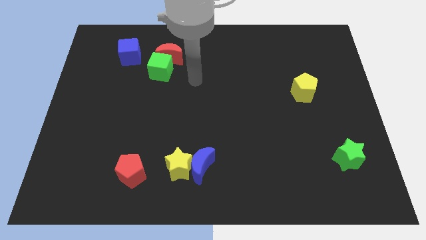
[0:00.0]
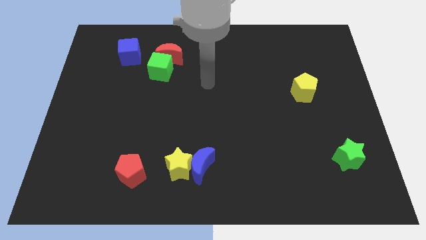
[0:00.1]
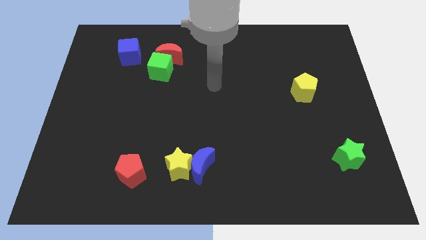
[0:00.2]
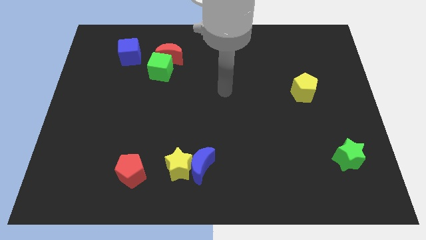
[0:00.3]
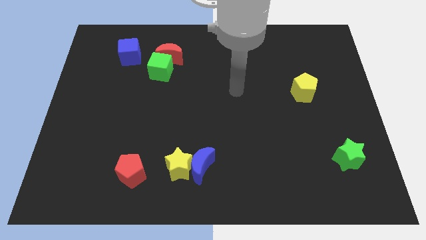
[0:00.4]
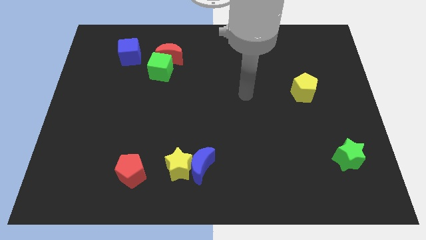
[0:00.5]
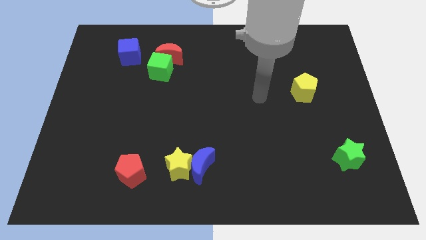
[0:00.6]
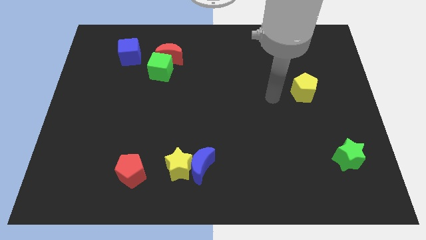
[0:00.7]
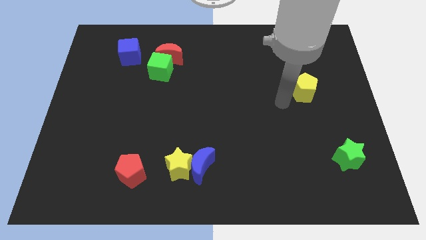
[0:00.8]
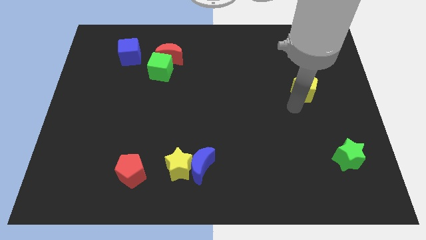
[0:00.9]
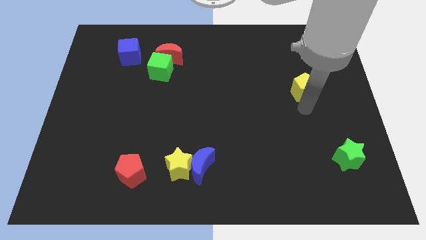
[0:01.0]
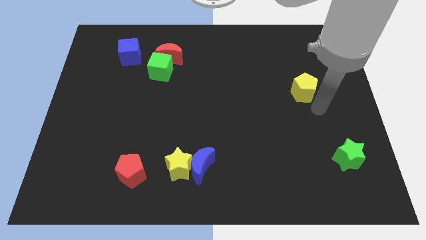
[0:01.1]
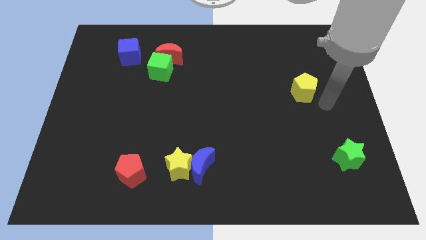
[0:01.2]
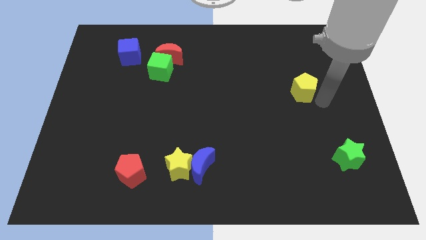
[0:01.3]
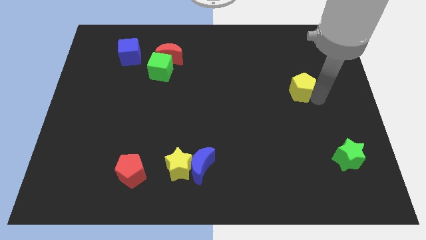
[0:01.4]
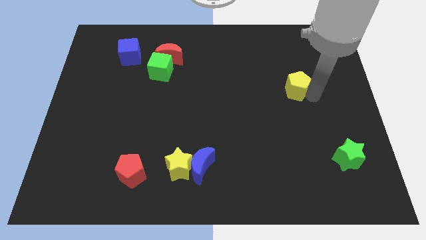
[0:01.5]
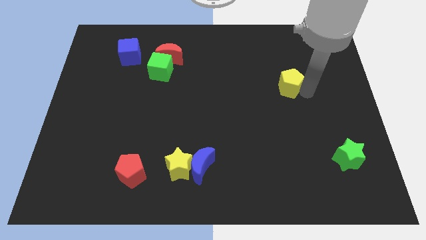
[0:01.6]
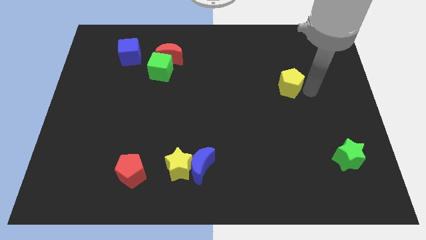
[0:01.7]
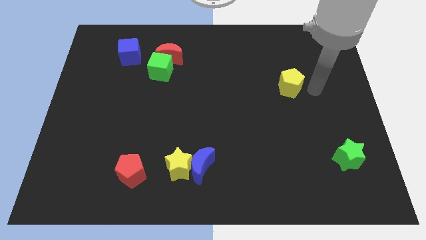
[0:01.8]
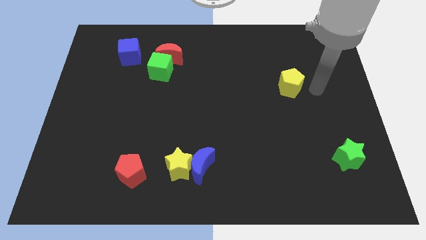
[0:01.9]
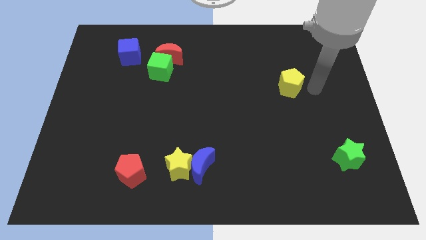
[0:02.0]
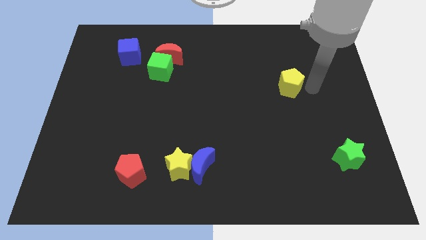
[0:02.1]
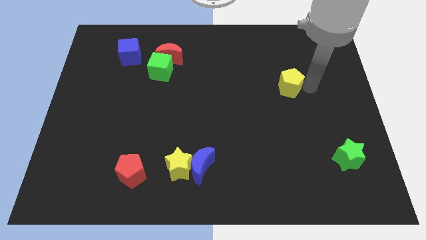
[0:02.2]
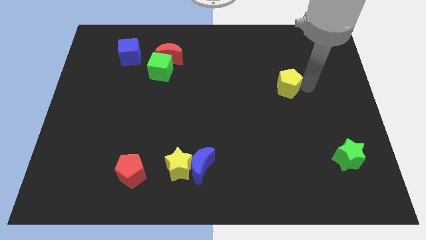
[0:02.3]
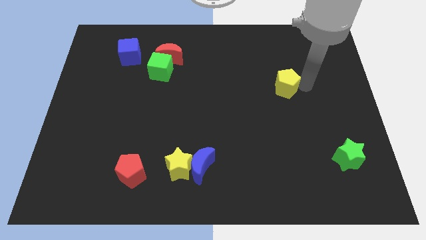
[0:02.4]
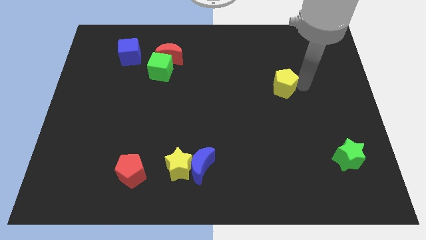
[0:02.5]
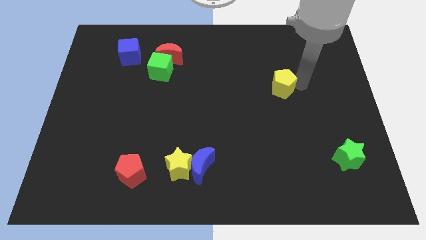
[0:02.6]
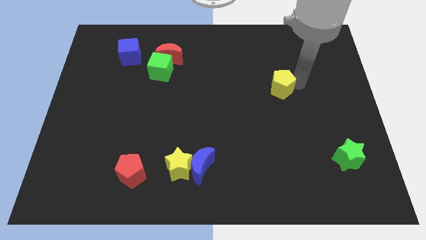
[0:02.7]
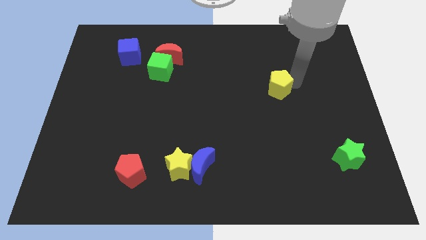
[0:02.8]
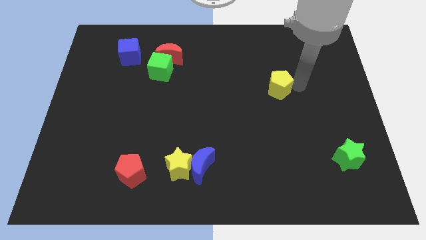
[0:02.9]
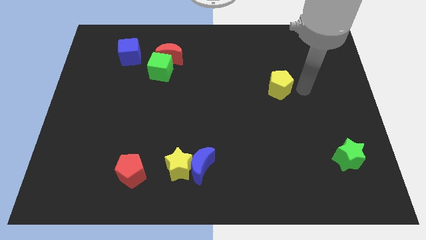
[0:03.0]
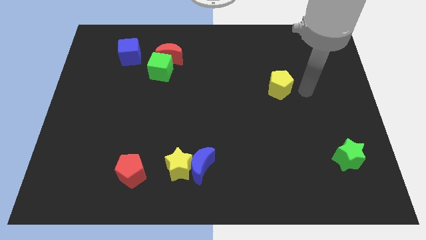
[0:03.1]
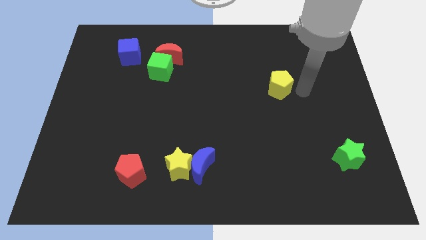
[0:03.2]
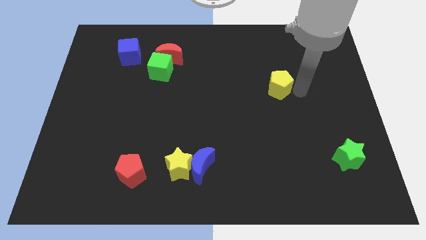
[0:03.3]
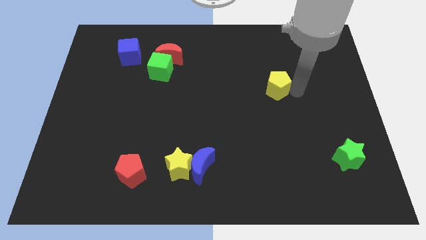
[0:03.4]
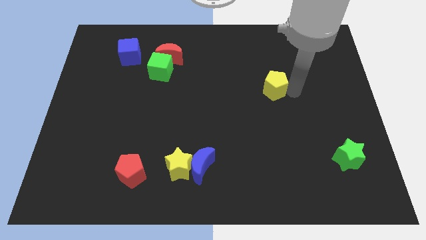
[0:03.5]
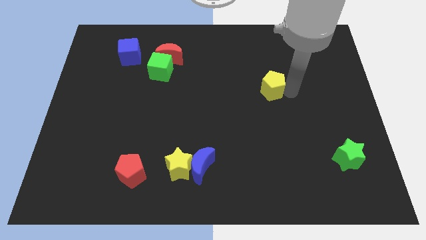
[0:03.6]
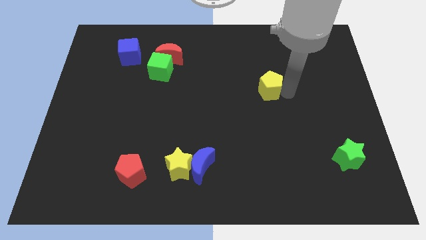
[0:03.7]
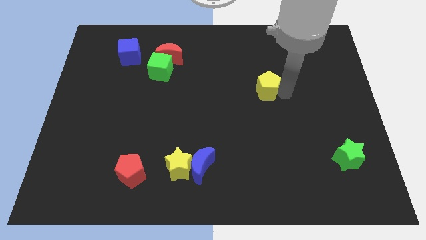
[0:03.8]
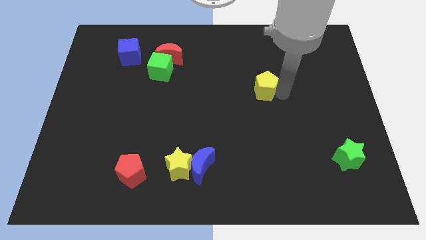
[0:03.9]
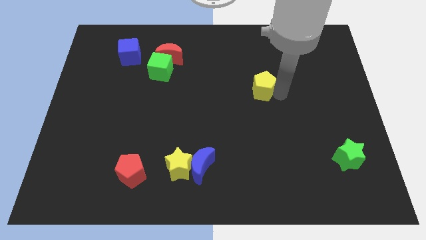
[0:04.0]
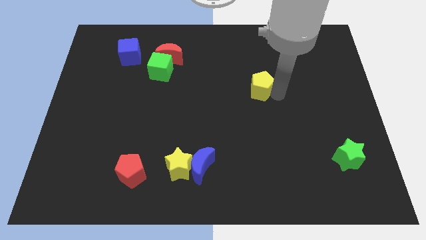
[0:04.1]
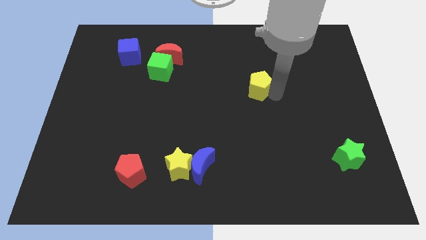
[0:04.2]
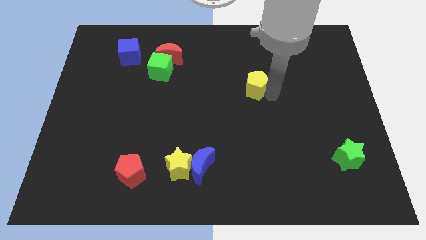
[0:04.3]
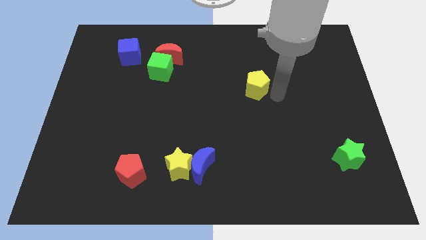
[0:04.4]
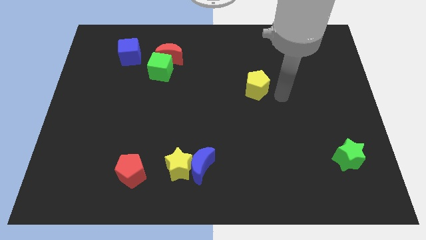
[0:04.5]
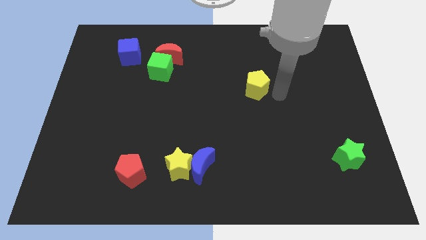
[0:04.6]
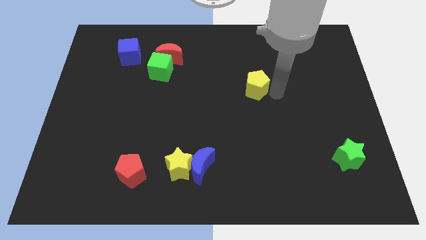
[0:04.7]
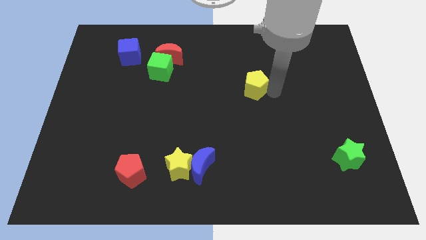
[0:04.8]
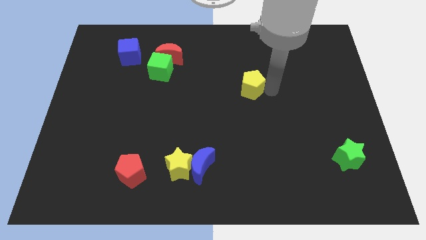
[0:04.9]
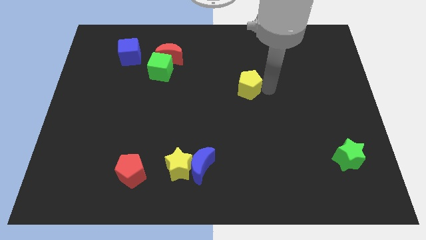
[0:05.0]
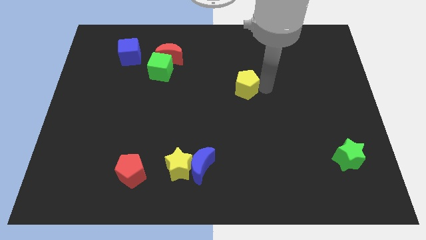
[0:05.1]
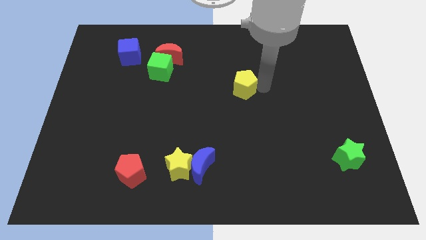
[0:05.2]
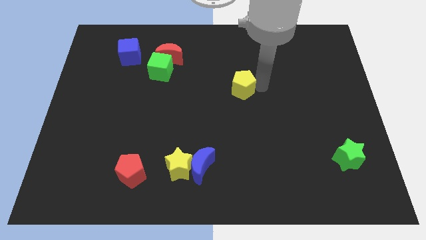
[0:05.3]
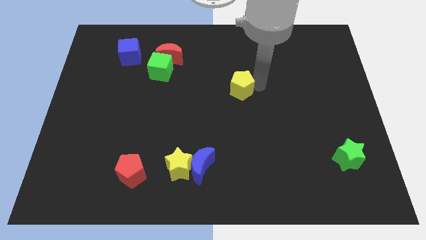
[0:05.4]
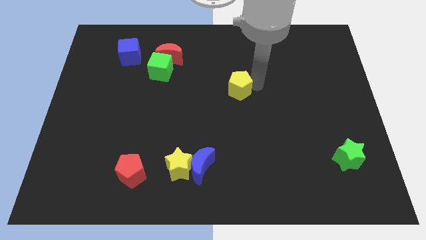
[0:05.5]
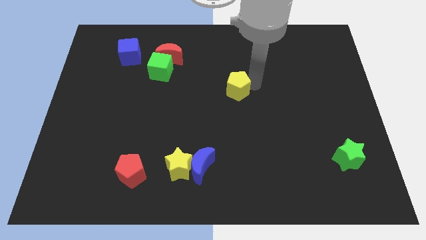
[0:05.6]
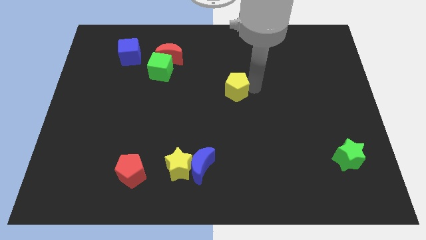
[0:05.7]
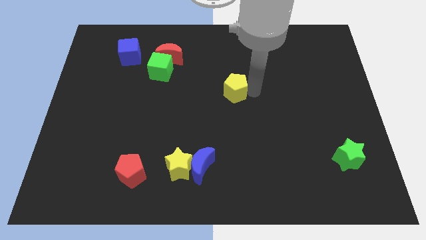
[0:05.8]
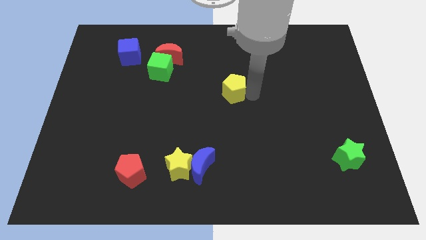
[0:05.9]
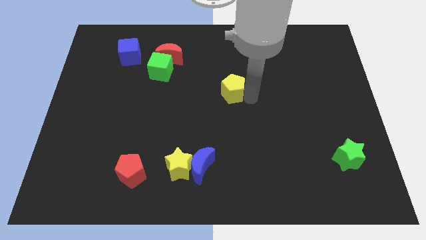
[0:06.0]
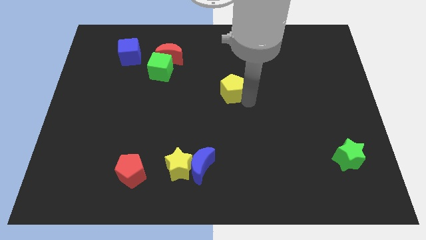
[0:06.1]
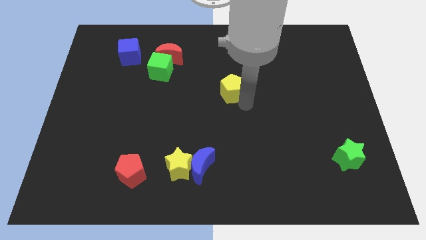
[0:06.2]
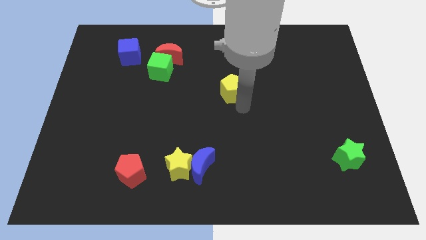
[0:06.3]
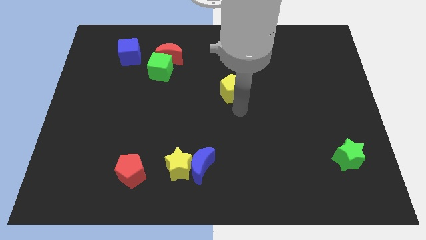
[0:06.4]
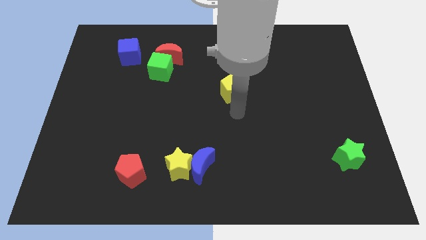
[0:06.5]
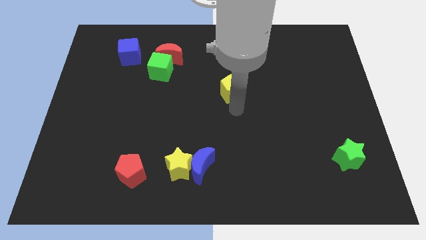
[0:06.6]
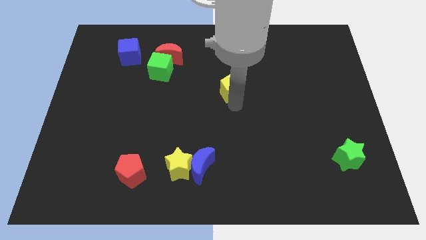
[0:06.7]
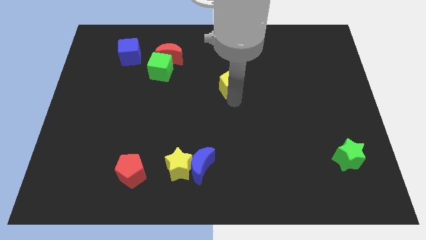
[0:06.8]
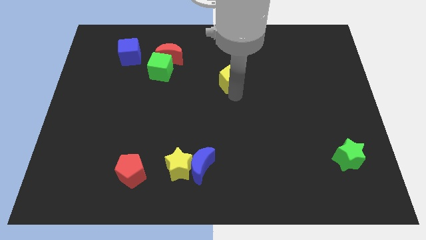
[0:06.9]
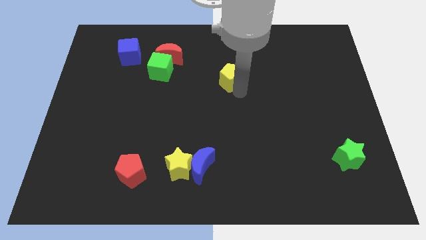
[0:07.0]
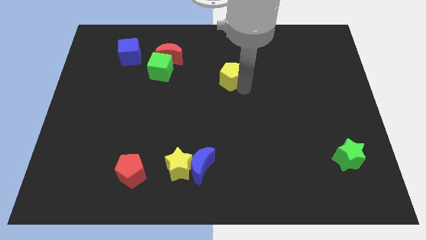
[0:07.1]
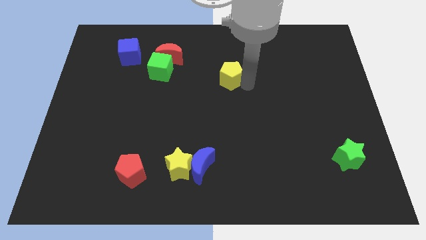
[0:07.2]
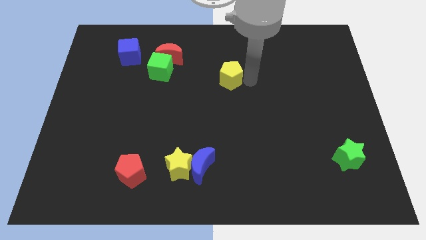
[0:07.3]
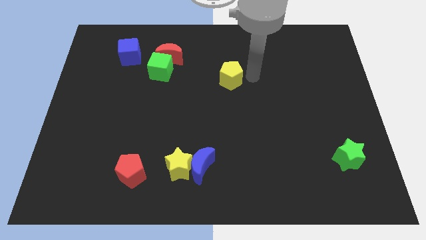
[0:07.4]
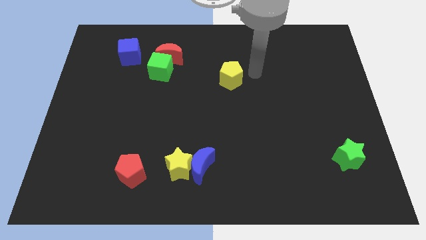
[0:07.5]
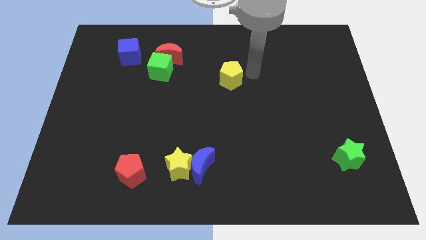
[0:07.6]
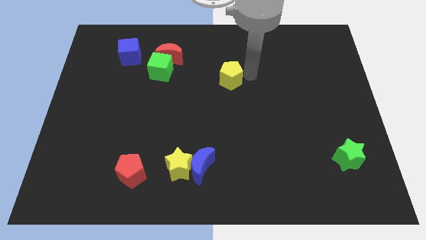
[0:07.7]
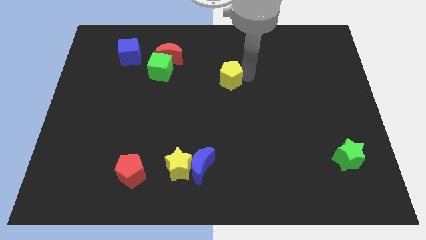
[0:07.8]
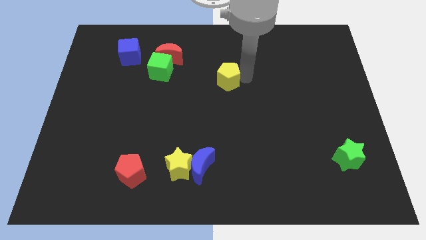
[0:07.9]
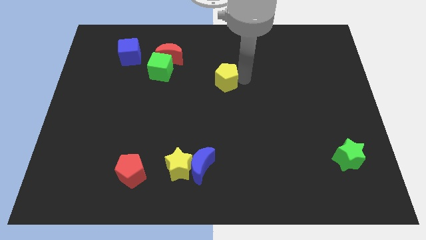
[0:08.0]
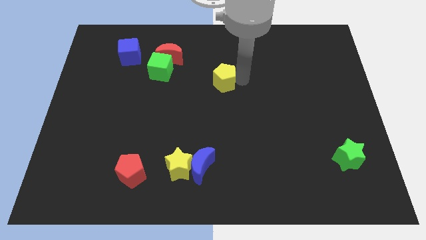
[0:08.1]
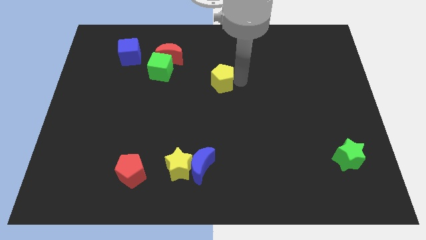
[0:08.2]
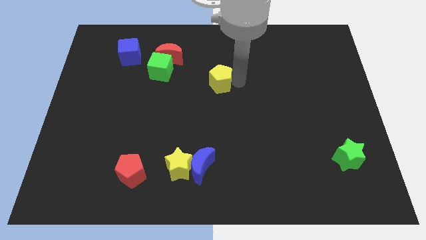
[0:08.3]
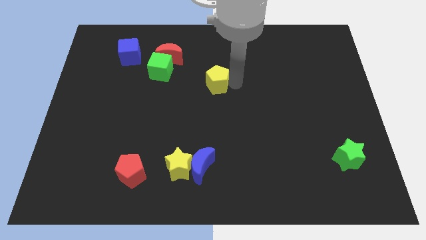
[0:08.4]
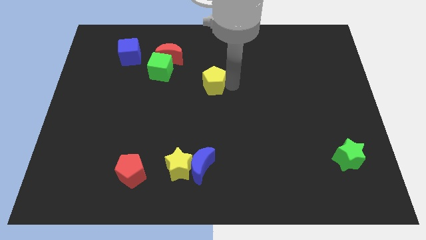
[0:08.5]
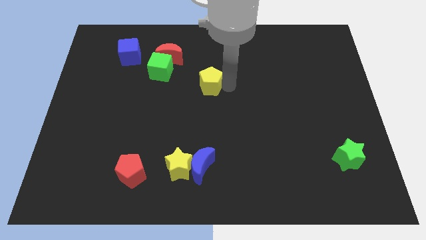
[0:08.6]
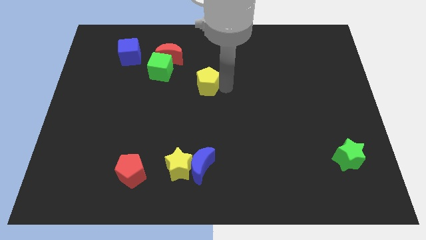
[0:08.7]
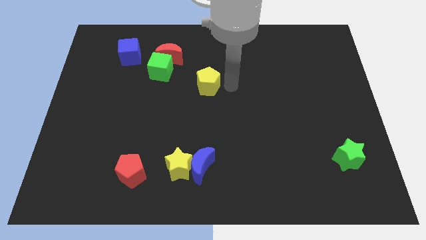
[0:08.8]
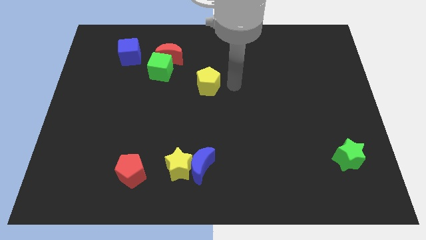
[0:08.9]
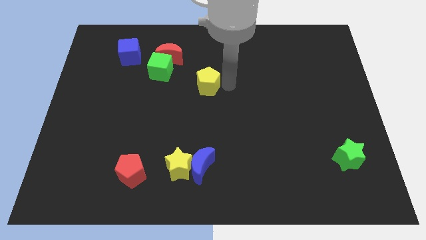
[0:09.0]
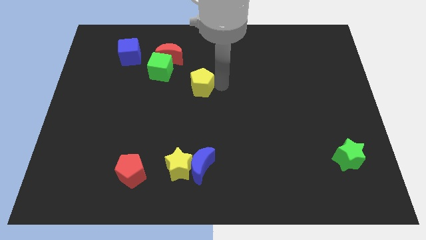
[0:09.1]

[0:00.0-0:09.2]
move the yellow pentagon to the bottom right of the green cube
